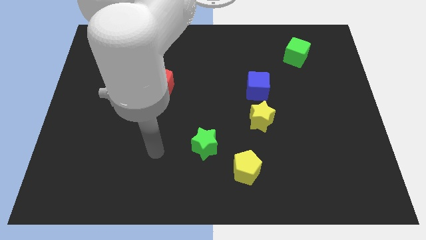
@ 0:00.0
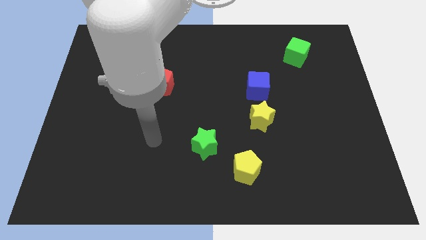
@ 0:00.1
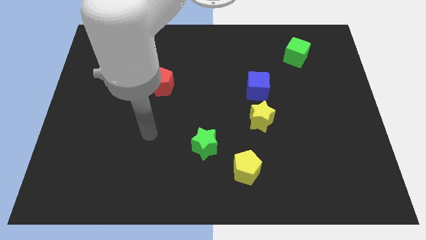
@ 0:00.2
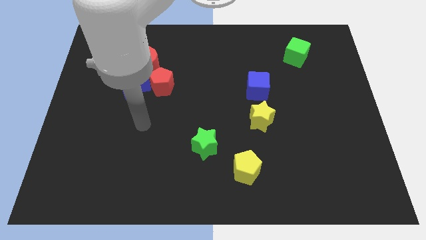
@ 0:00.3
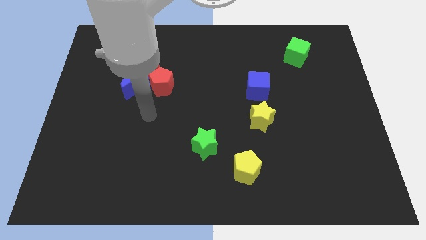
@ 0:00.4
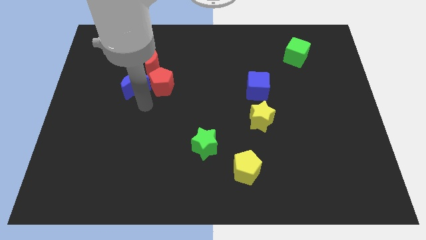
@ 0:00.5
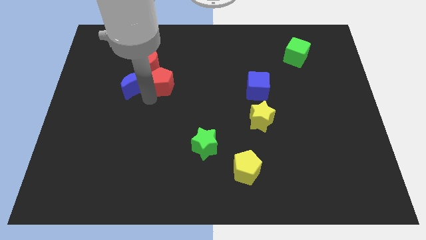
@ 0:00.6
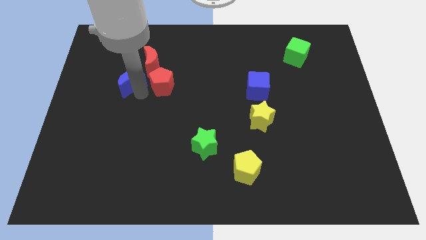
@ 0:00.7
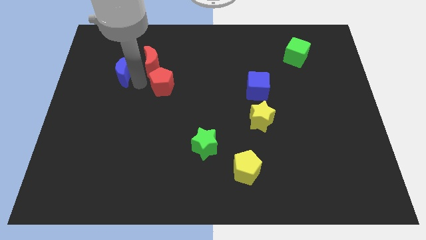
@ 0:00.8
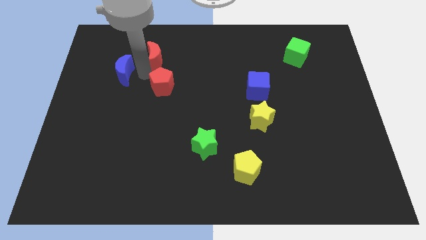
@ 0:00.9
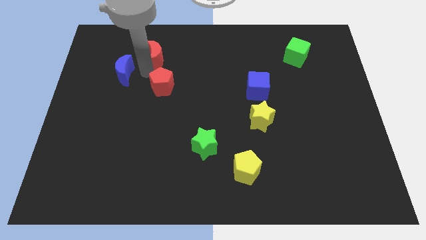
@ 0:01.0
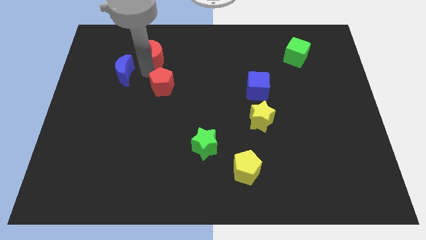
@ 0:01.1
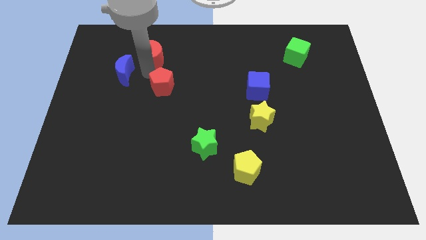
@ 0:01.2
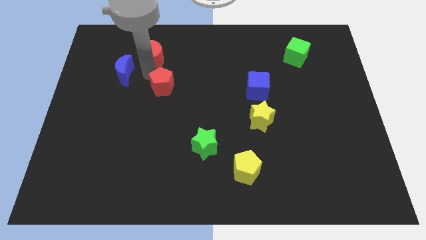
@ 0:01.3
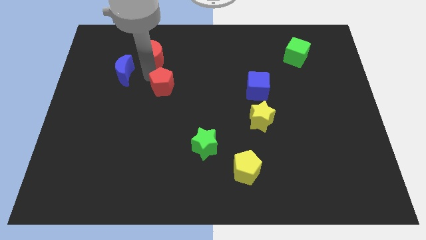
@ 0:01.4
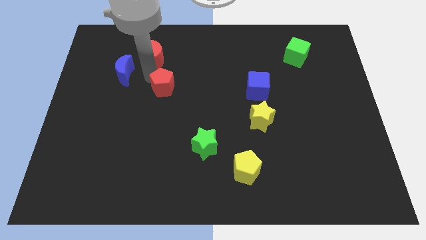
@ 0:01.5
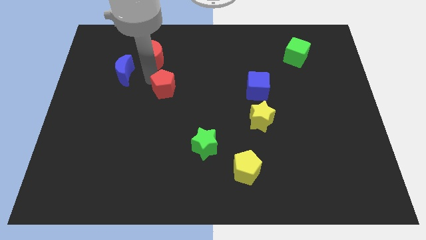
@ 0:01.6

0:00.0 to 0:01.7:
move the red pentagon away from the blue moon and red moon

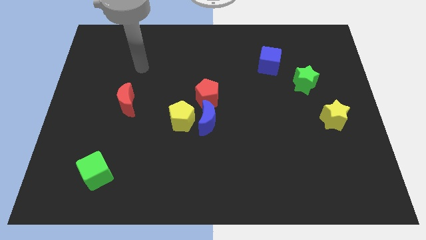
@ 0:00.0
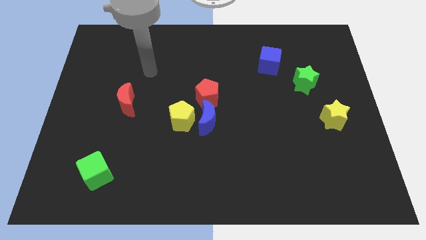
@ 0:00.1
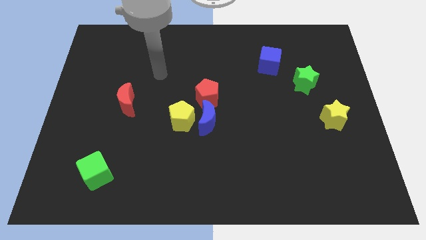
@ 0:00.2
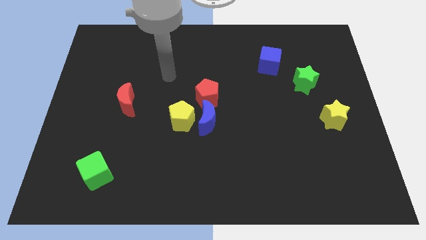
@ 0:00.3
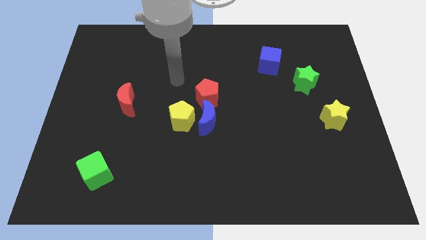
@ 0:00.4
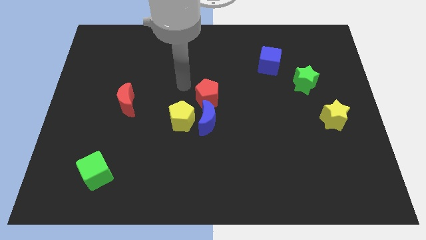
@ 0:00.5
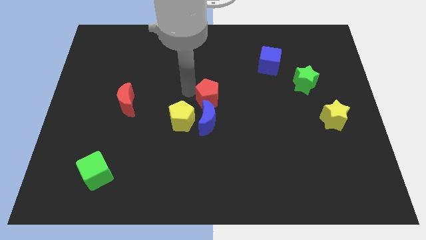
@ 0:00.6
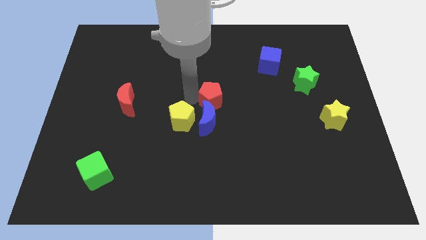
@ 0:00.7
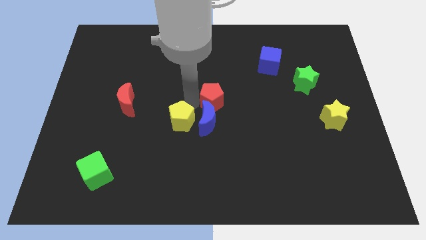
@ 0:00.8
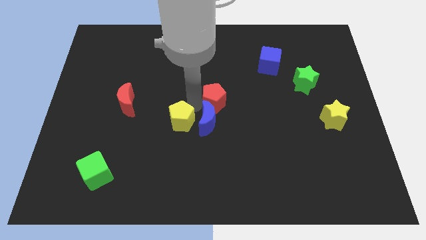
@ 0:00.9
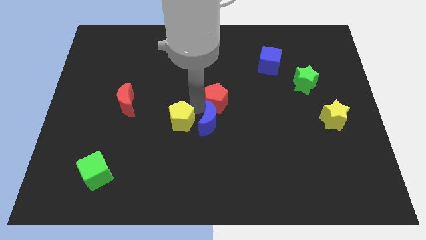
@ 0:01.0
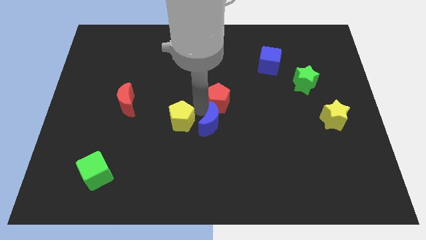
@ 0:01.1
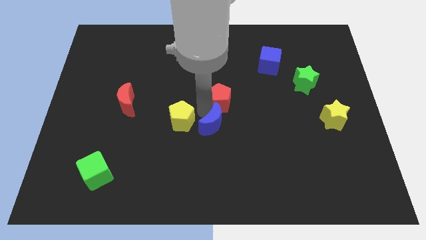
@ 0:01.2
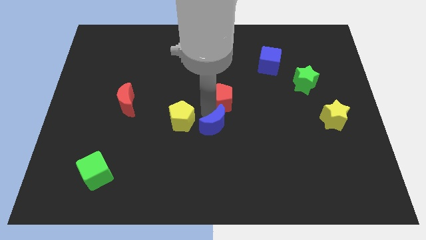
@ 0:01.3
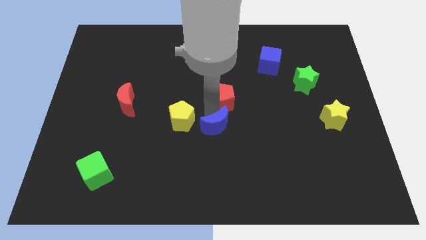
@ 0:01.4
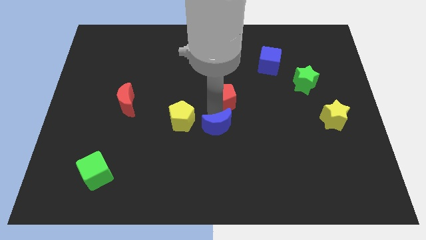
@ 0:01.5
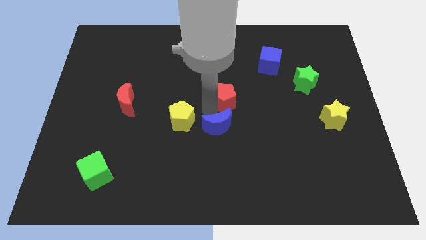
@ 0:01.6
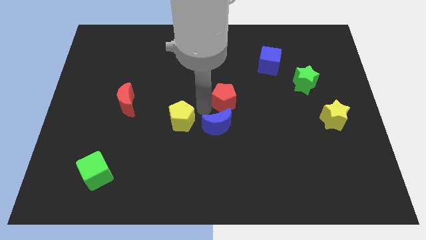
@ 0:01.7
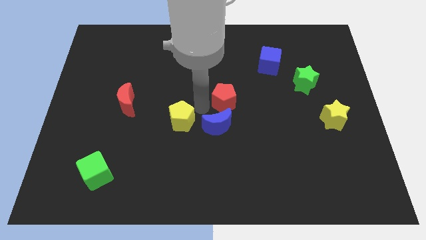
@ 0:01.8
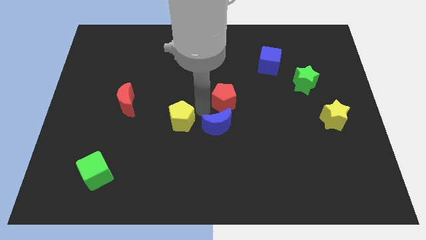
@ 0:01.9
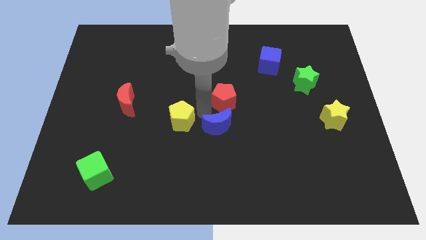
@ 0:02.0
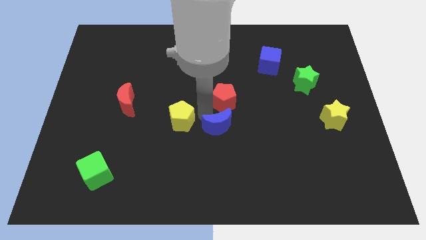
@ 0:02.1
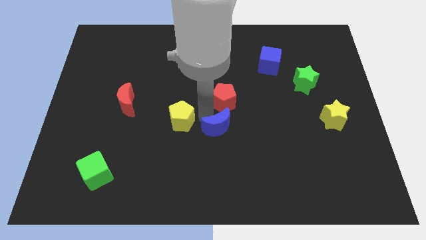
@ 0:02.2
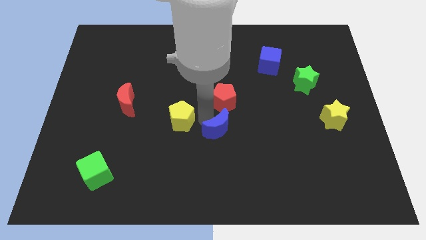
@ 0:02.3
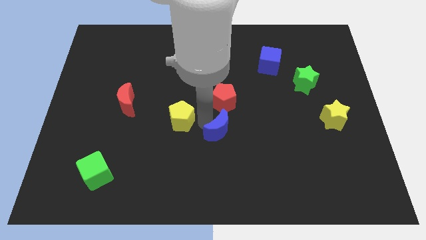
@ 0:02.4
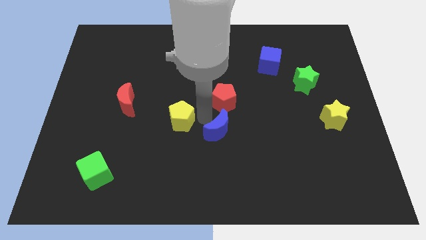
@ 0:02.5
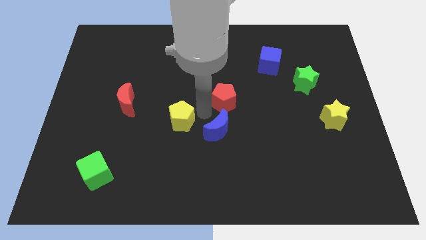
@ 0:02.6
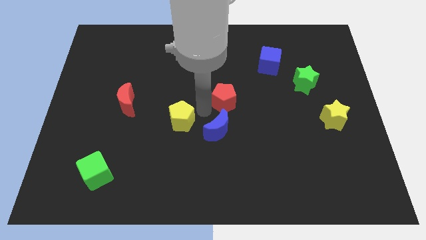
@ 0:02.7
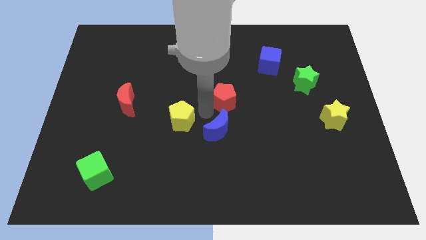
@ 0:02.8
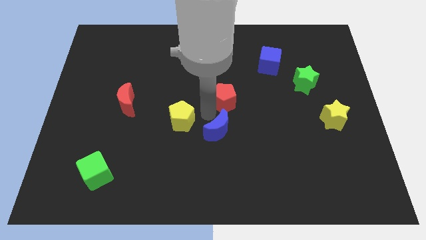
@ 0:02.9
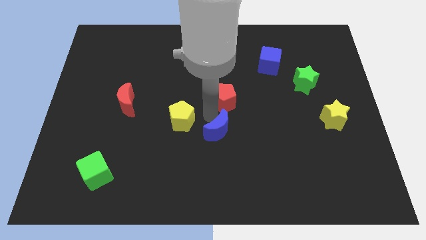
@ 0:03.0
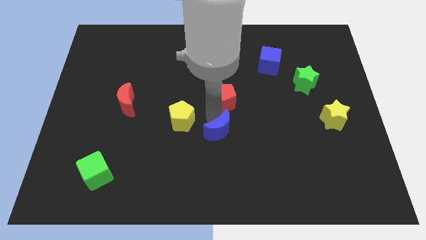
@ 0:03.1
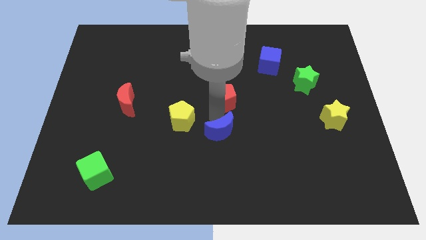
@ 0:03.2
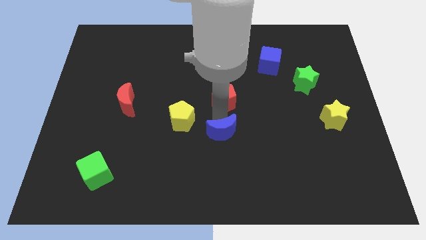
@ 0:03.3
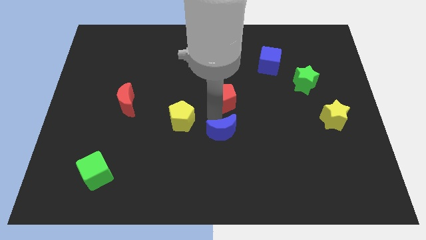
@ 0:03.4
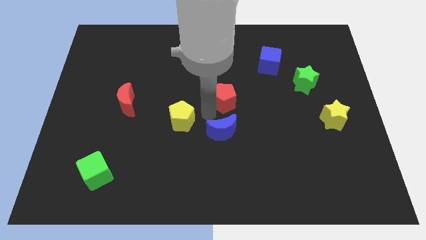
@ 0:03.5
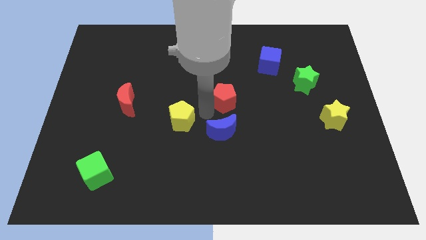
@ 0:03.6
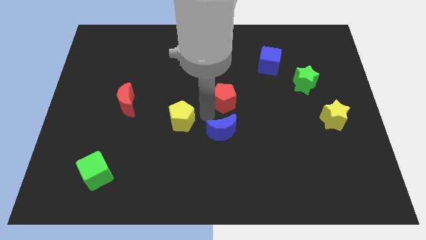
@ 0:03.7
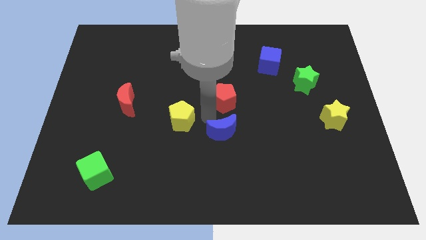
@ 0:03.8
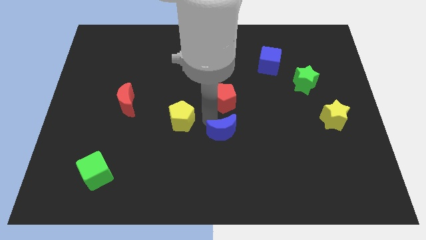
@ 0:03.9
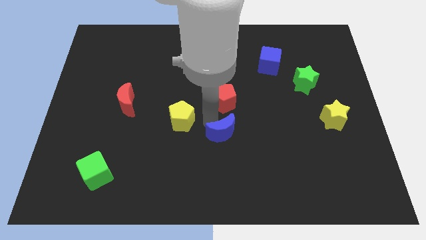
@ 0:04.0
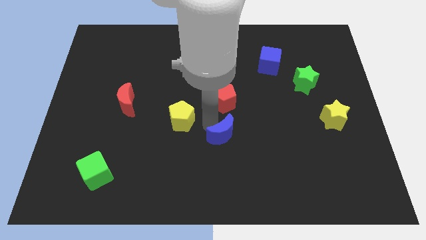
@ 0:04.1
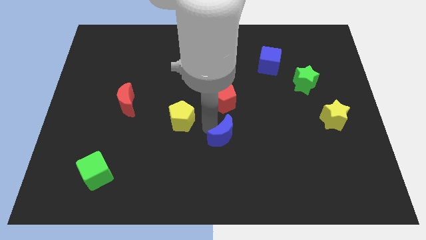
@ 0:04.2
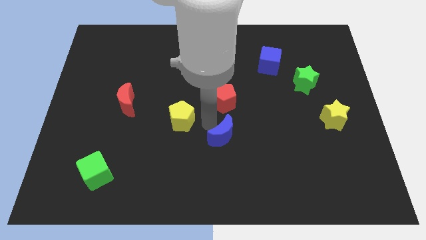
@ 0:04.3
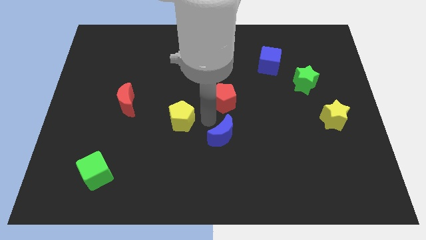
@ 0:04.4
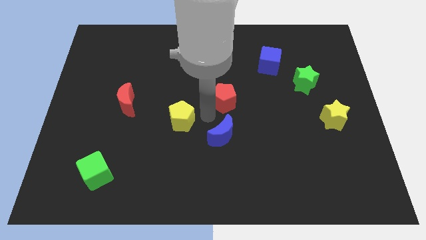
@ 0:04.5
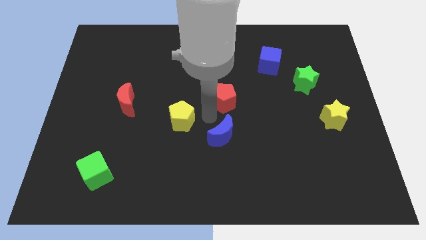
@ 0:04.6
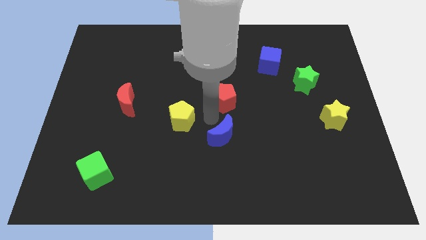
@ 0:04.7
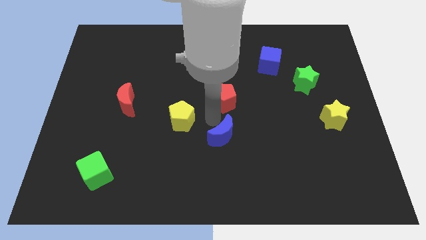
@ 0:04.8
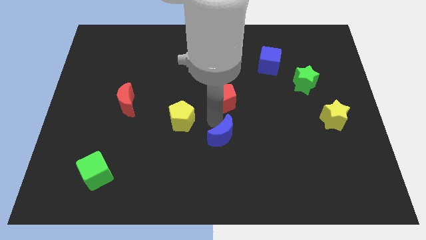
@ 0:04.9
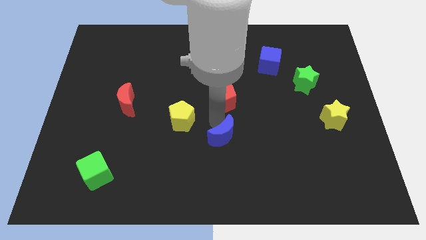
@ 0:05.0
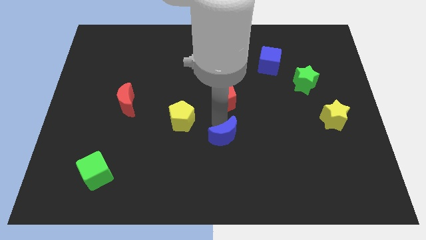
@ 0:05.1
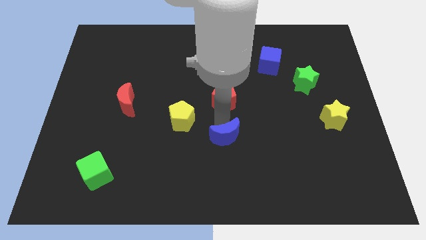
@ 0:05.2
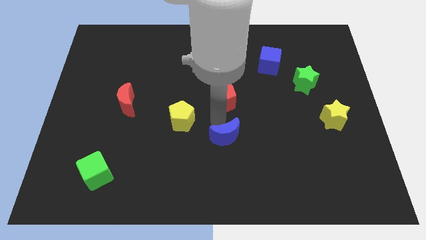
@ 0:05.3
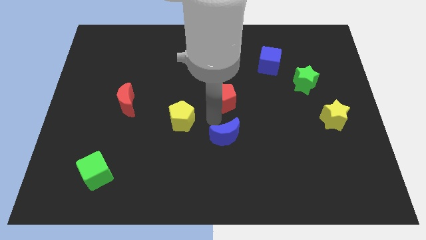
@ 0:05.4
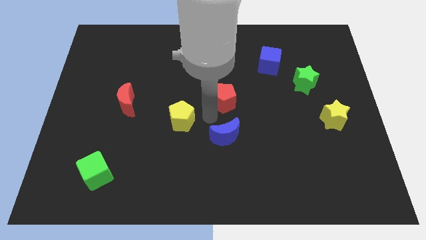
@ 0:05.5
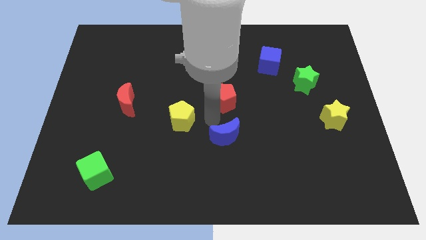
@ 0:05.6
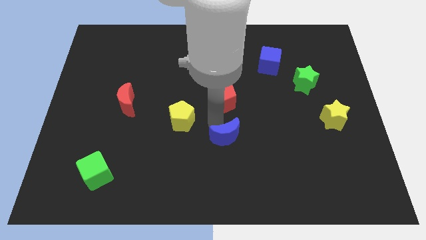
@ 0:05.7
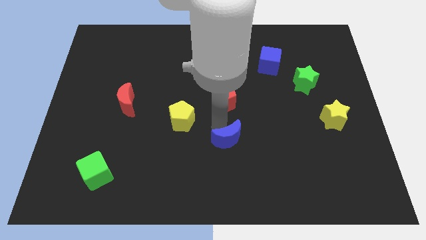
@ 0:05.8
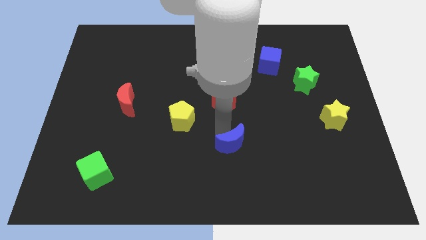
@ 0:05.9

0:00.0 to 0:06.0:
pull the blue moon apart from the yellow pentagon and red pentagon

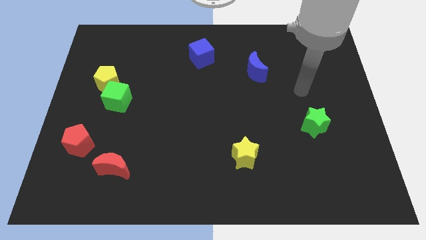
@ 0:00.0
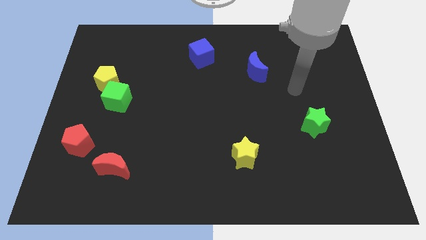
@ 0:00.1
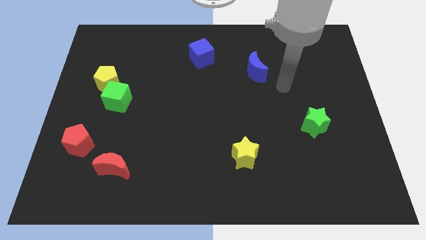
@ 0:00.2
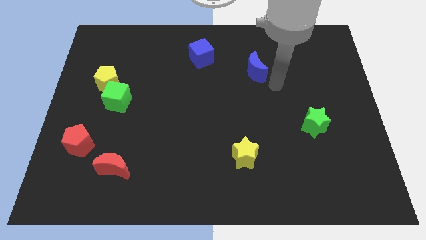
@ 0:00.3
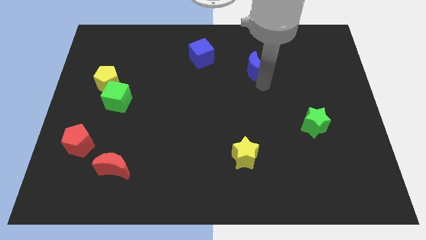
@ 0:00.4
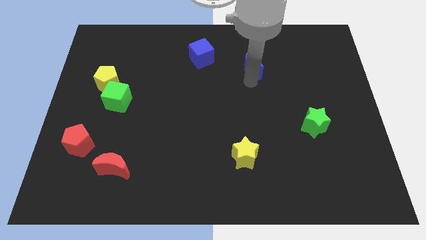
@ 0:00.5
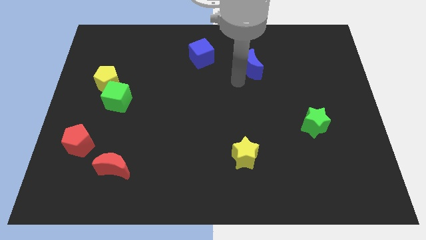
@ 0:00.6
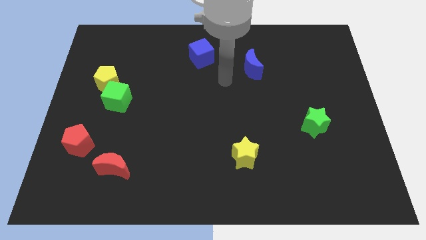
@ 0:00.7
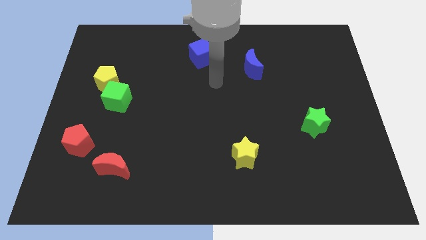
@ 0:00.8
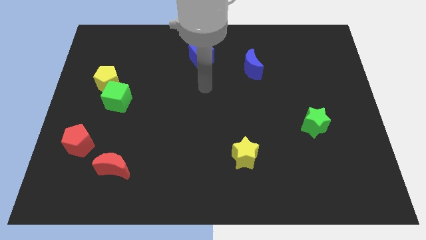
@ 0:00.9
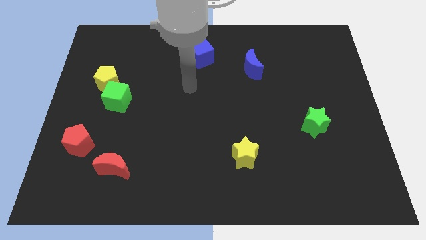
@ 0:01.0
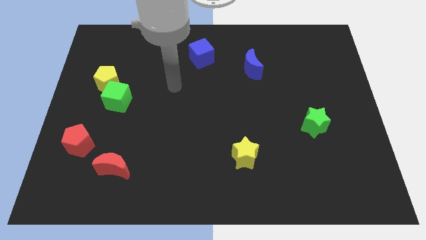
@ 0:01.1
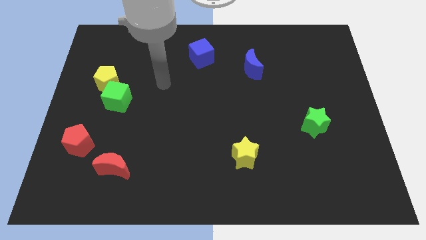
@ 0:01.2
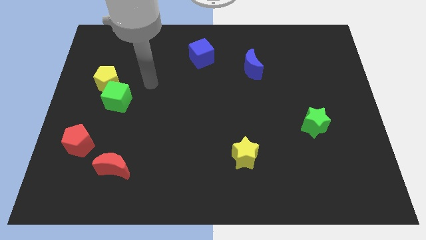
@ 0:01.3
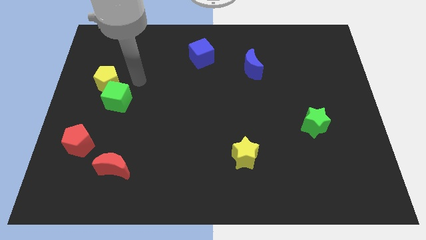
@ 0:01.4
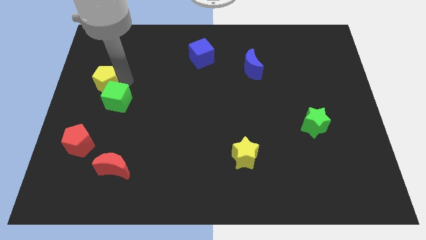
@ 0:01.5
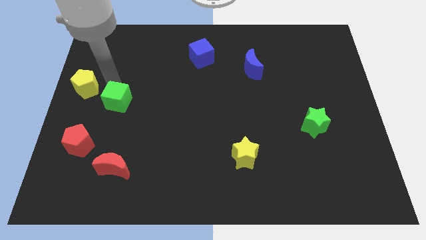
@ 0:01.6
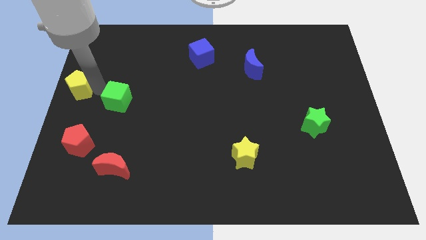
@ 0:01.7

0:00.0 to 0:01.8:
move the green cube away from the yellow pentagon
